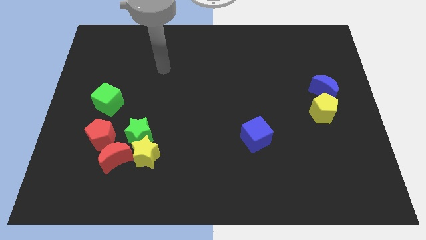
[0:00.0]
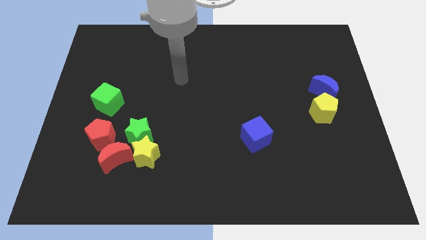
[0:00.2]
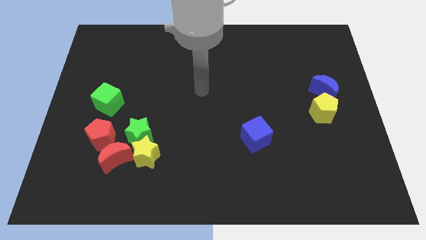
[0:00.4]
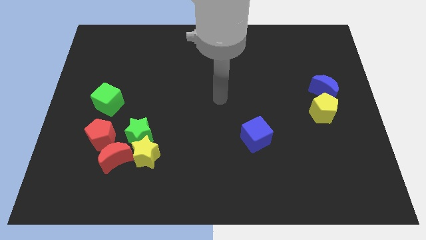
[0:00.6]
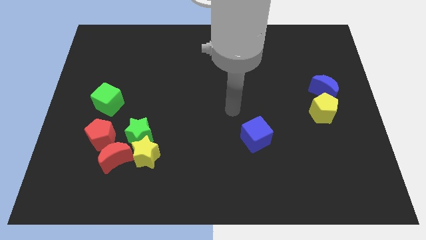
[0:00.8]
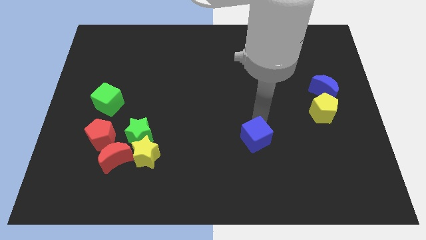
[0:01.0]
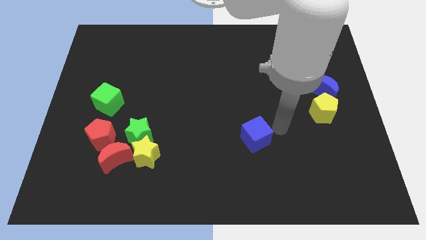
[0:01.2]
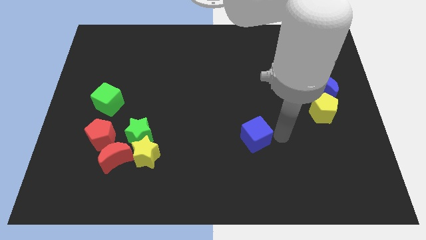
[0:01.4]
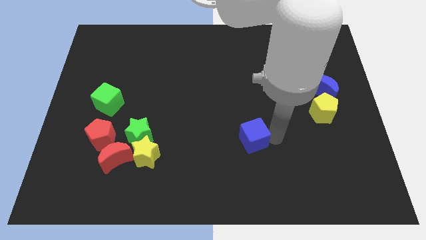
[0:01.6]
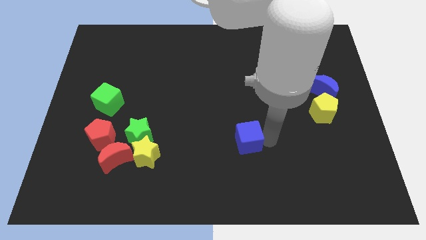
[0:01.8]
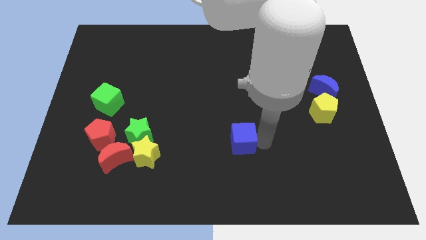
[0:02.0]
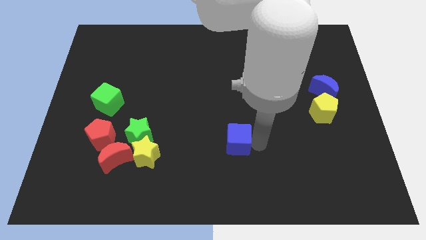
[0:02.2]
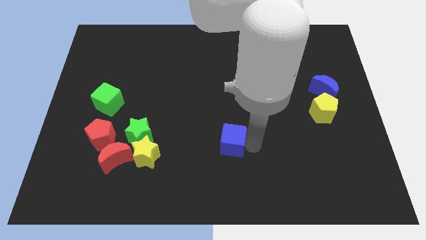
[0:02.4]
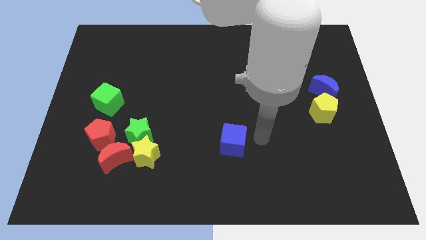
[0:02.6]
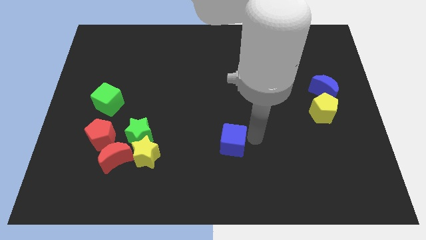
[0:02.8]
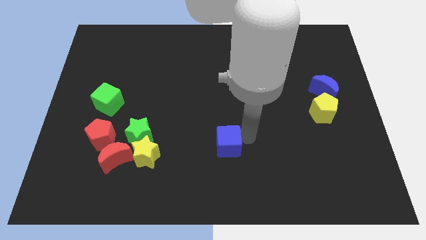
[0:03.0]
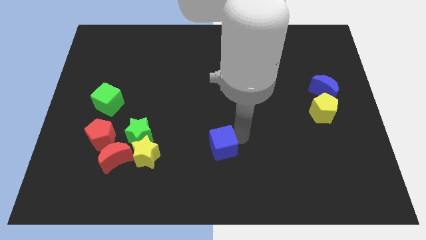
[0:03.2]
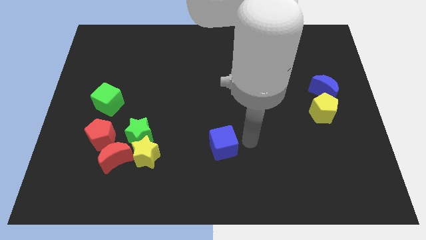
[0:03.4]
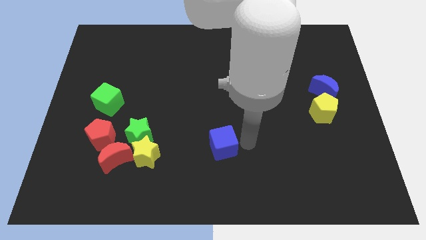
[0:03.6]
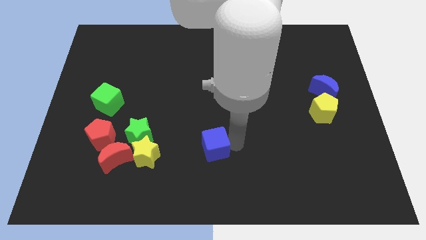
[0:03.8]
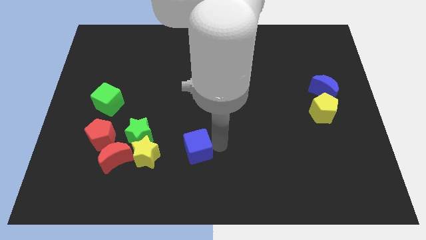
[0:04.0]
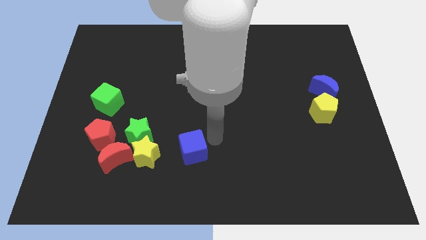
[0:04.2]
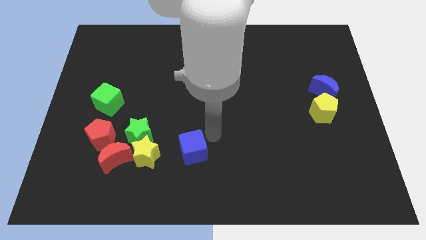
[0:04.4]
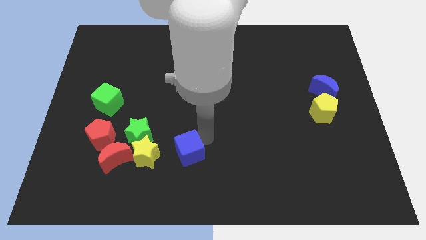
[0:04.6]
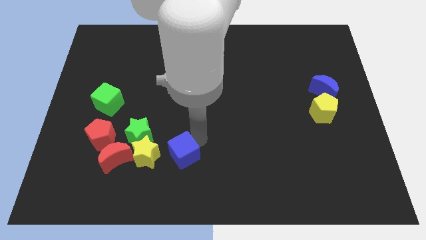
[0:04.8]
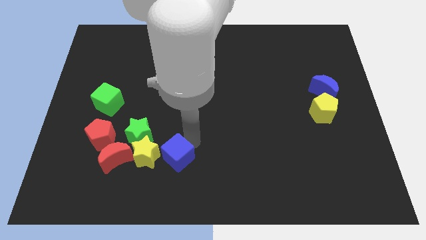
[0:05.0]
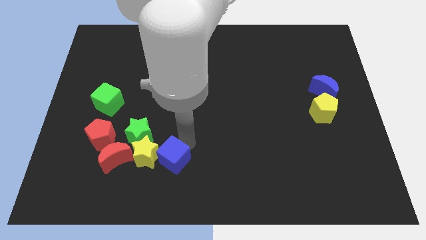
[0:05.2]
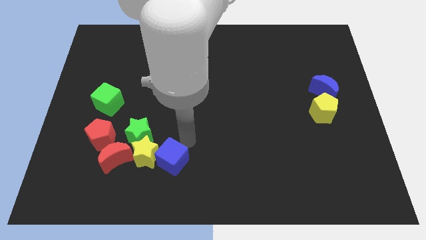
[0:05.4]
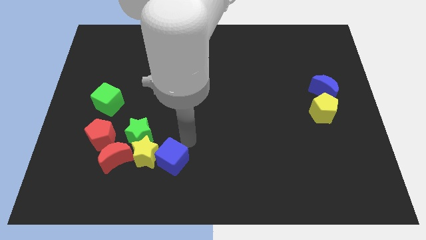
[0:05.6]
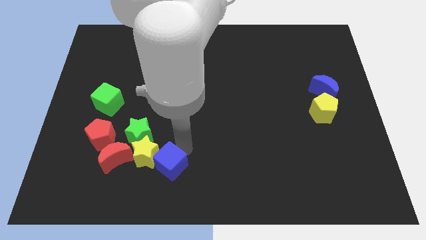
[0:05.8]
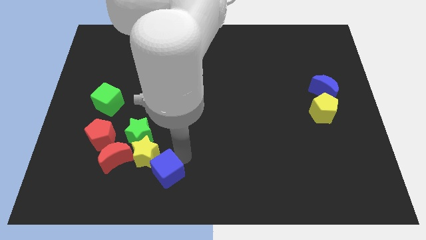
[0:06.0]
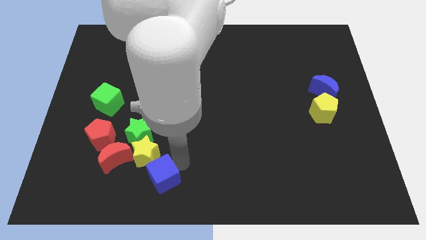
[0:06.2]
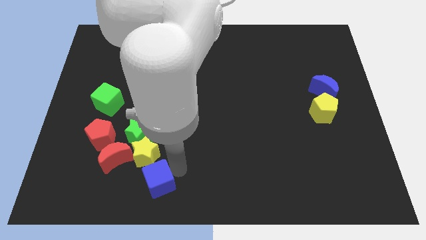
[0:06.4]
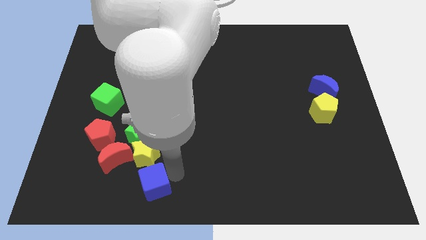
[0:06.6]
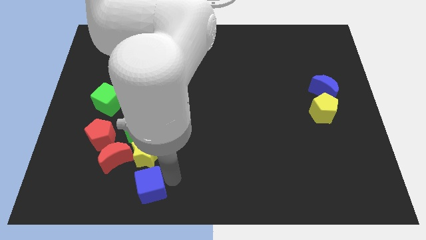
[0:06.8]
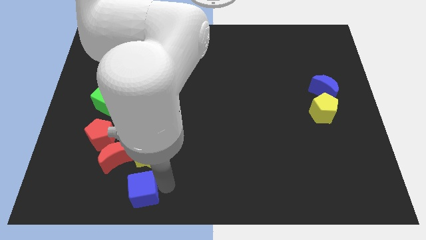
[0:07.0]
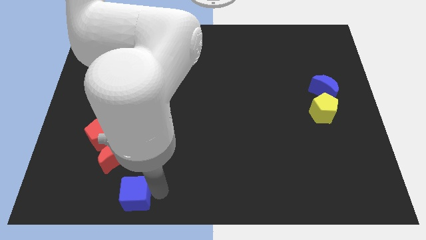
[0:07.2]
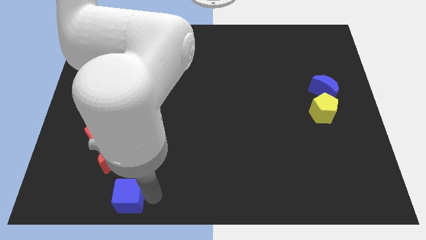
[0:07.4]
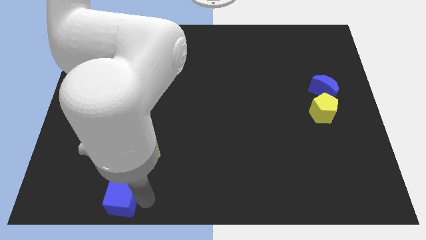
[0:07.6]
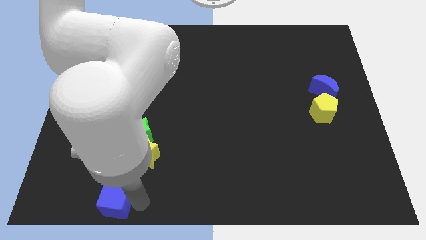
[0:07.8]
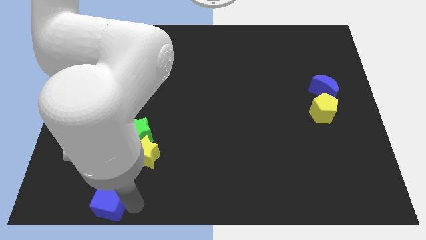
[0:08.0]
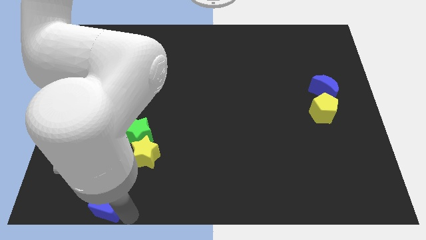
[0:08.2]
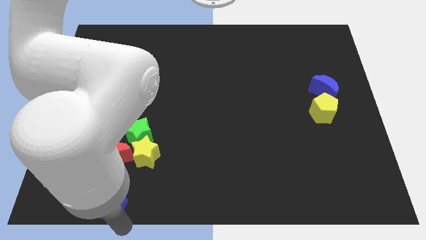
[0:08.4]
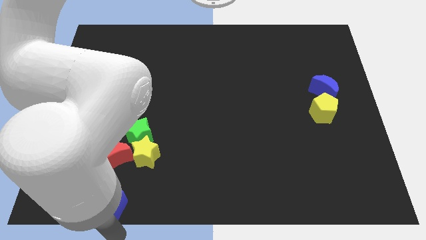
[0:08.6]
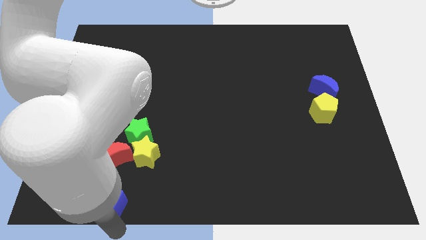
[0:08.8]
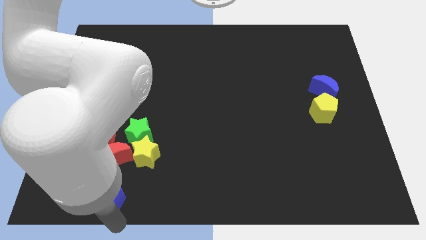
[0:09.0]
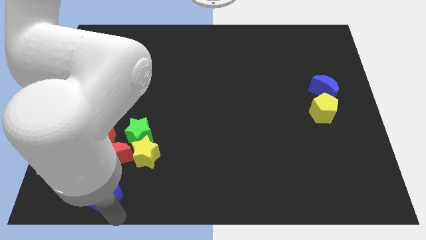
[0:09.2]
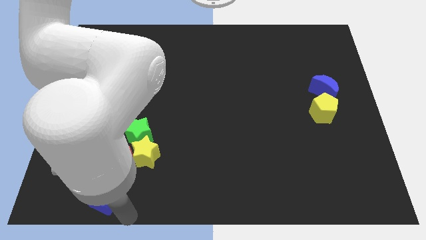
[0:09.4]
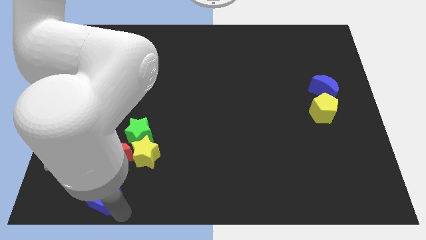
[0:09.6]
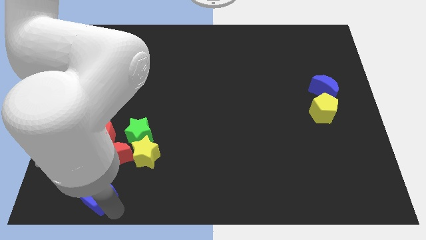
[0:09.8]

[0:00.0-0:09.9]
put the blue cube diagonally down and to the left of the red moon

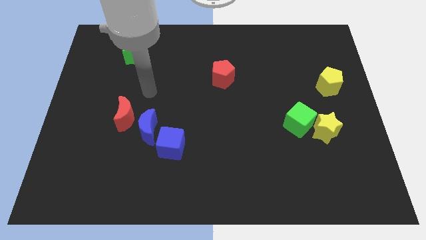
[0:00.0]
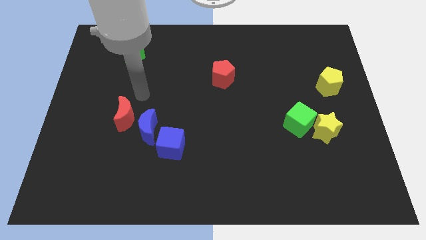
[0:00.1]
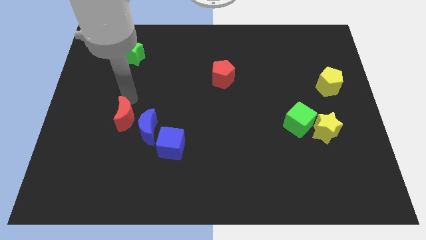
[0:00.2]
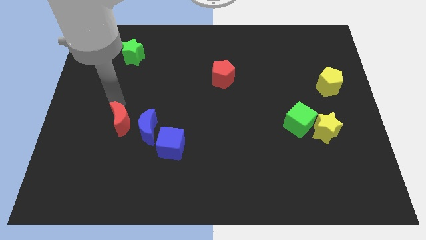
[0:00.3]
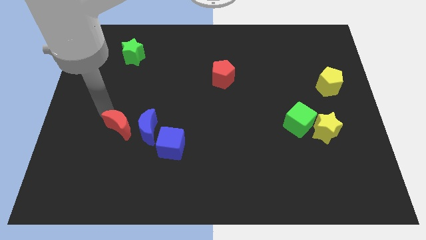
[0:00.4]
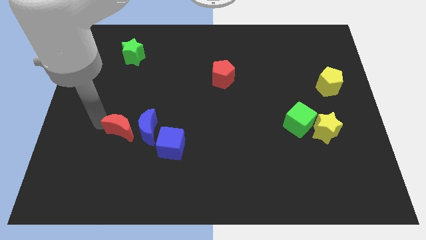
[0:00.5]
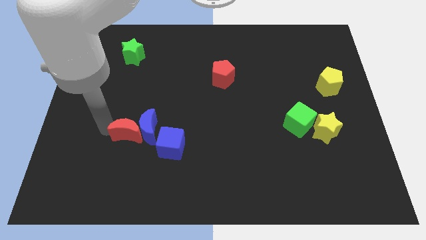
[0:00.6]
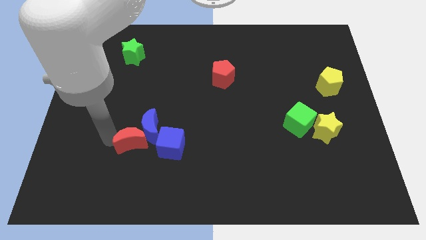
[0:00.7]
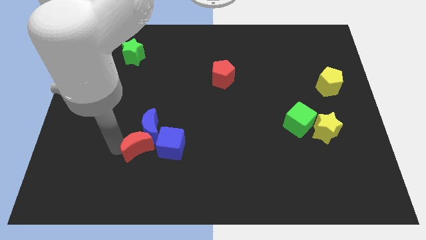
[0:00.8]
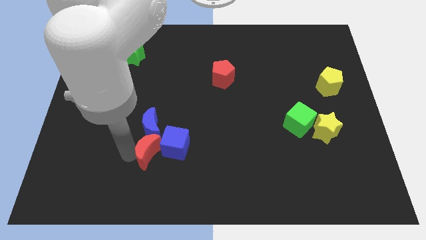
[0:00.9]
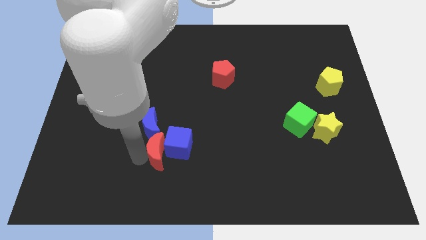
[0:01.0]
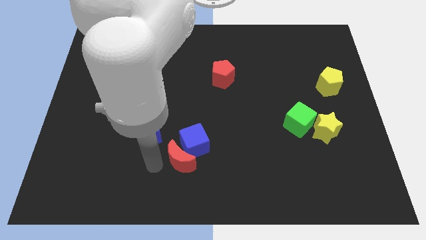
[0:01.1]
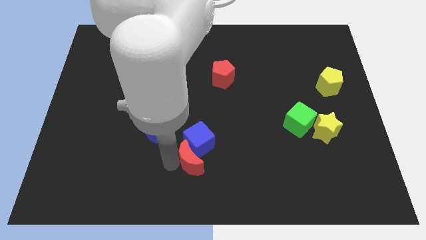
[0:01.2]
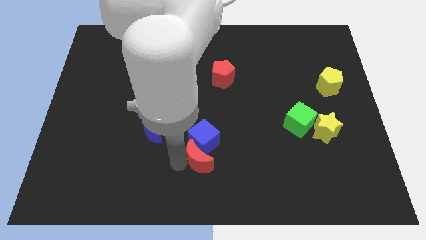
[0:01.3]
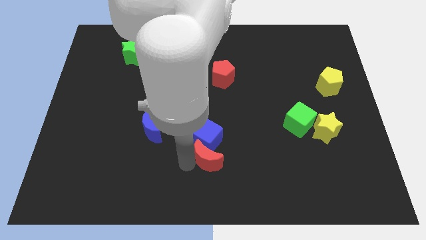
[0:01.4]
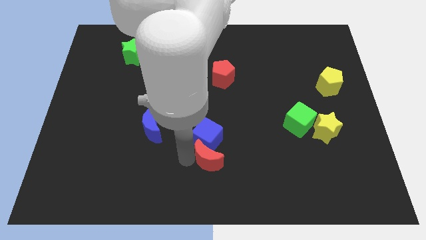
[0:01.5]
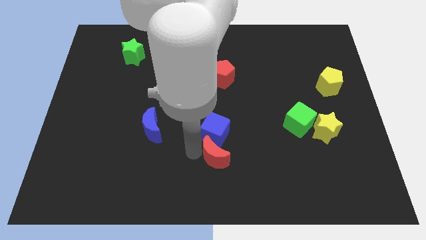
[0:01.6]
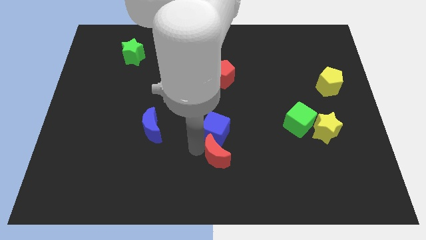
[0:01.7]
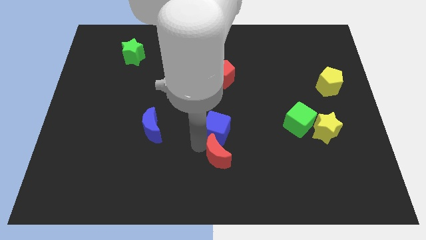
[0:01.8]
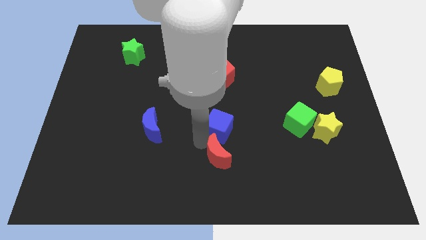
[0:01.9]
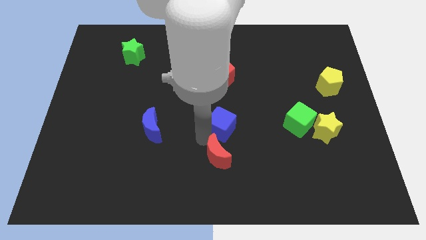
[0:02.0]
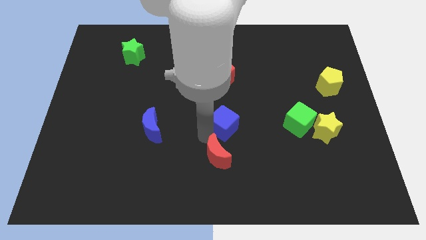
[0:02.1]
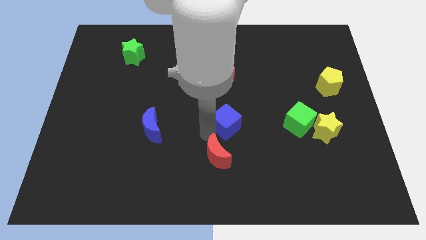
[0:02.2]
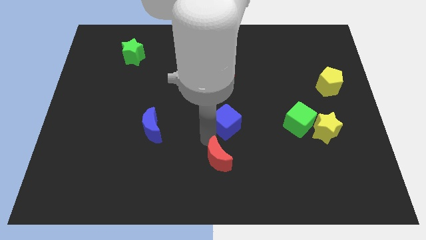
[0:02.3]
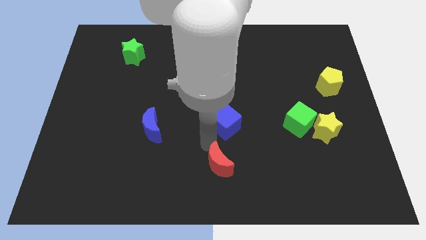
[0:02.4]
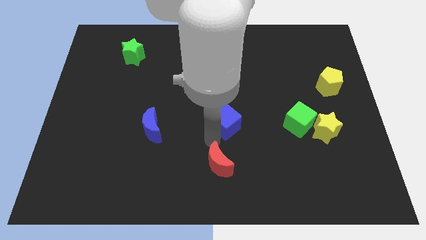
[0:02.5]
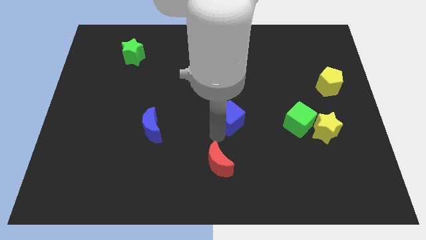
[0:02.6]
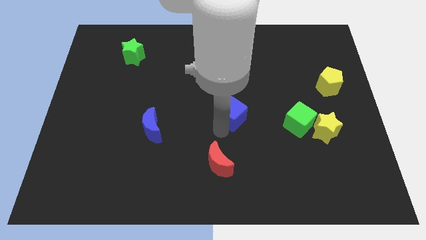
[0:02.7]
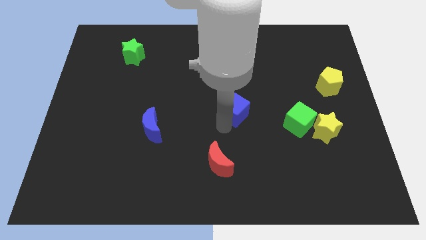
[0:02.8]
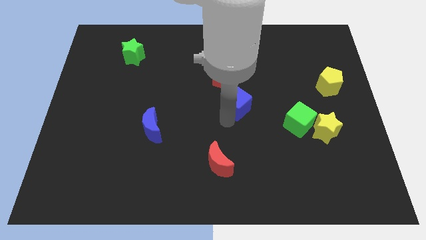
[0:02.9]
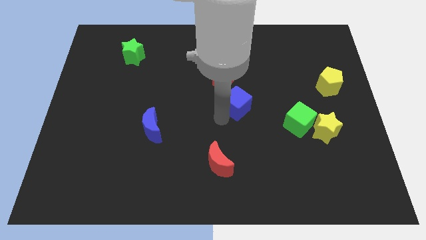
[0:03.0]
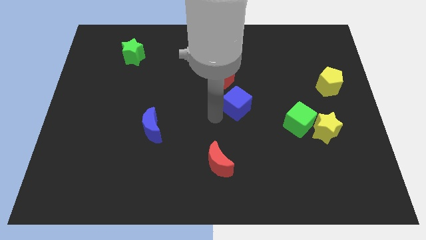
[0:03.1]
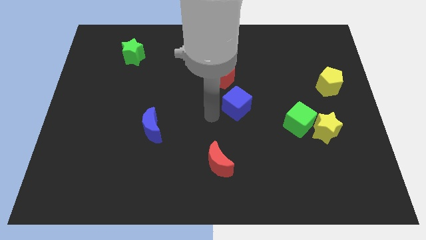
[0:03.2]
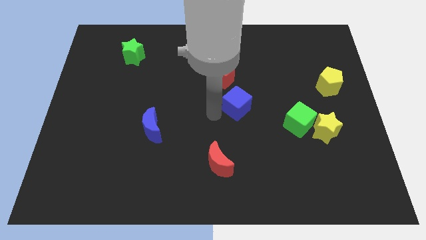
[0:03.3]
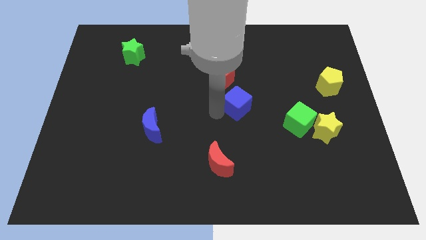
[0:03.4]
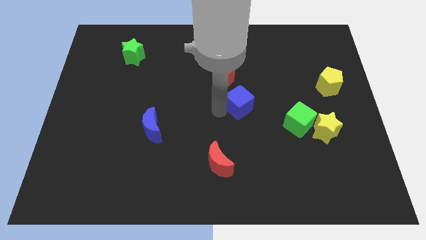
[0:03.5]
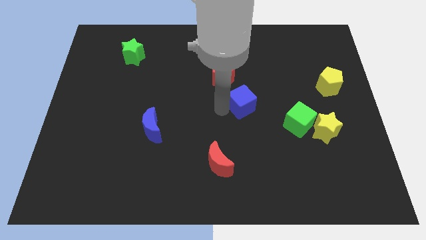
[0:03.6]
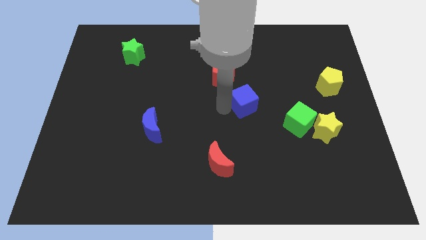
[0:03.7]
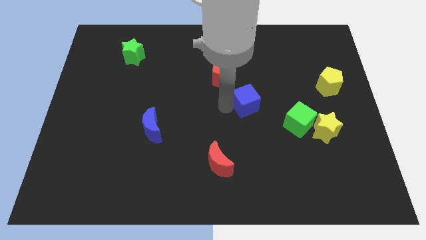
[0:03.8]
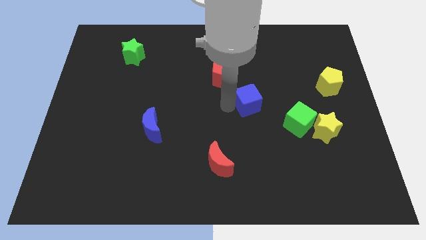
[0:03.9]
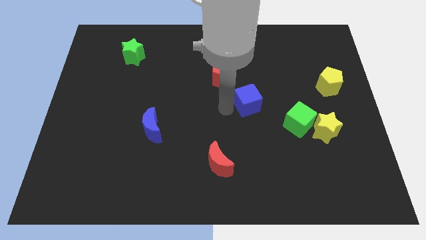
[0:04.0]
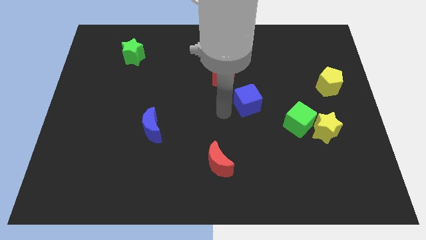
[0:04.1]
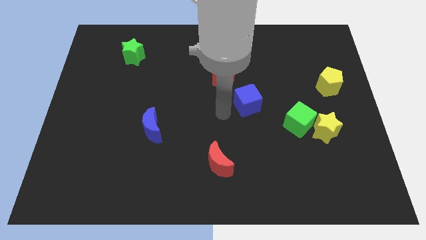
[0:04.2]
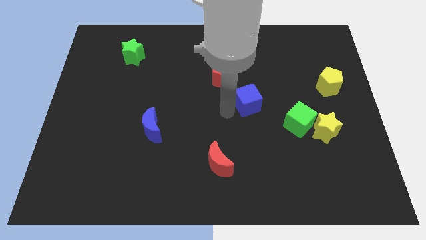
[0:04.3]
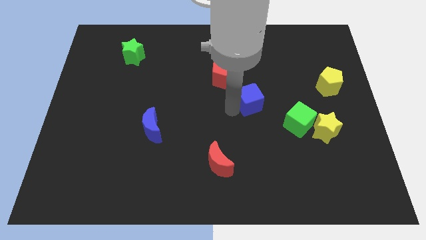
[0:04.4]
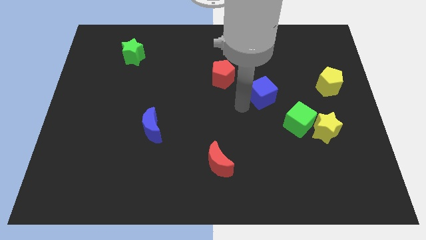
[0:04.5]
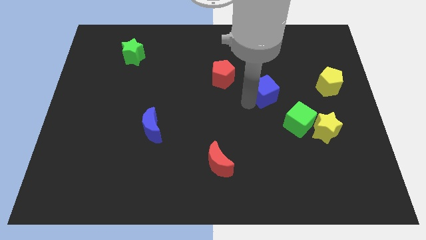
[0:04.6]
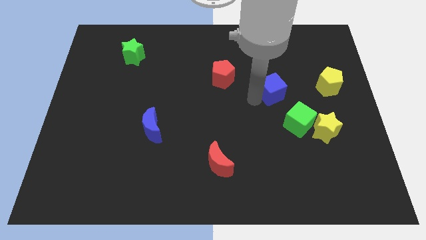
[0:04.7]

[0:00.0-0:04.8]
push the blue cube just left of the yellow pentagon
